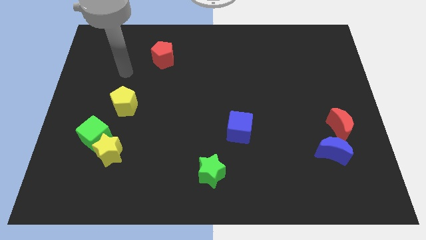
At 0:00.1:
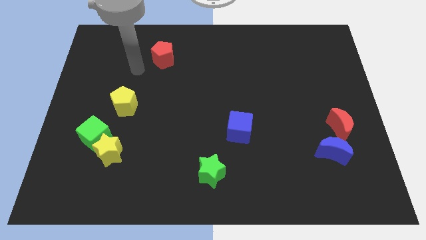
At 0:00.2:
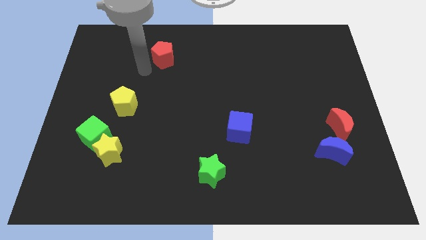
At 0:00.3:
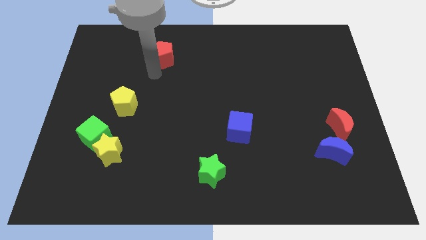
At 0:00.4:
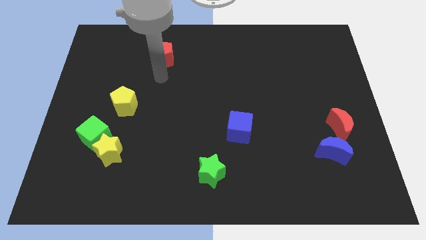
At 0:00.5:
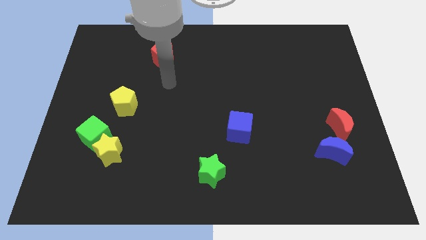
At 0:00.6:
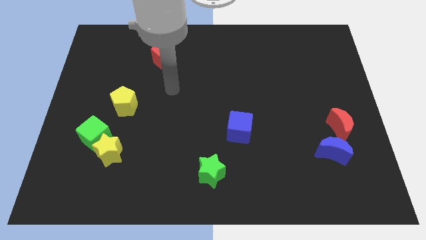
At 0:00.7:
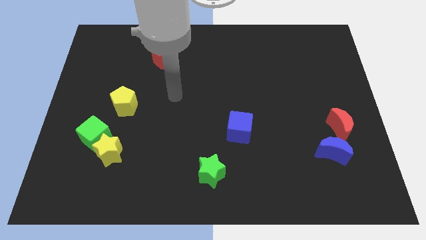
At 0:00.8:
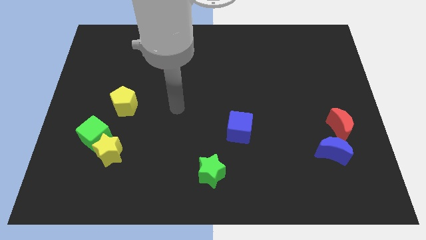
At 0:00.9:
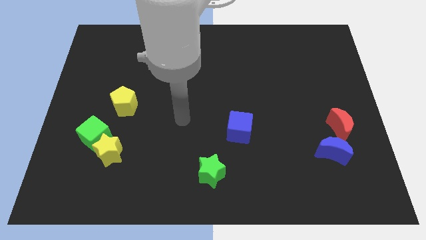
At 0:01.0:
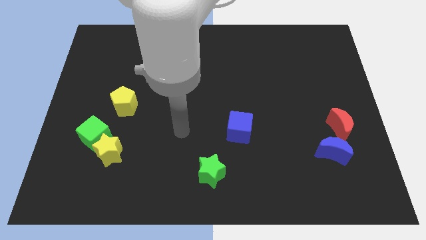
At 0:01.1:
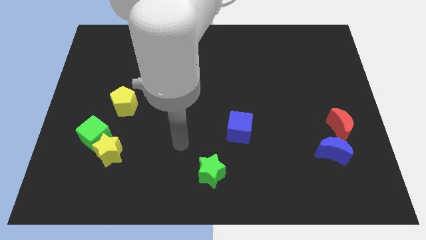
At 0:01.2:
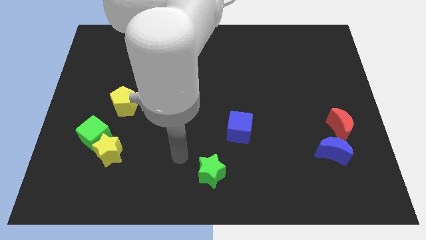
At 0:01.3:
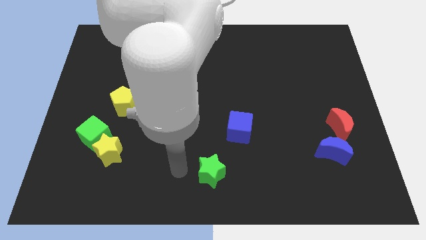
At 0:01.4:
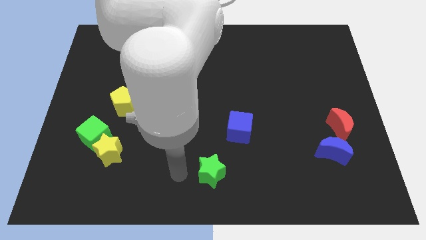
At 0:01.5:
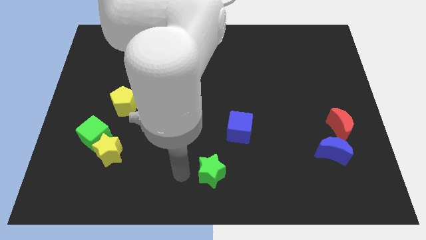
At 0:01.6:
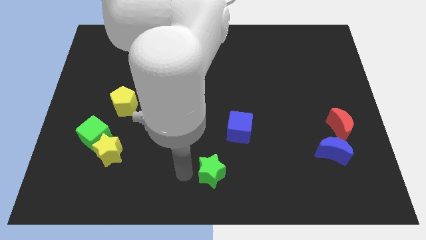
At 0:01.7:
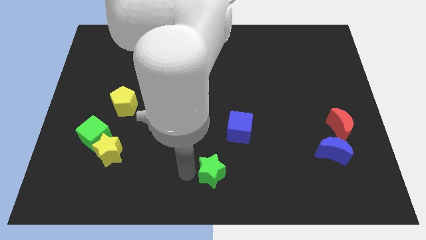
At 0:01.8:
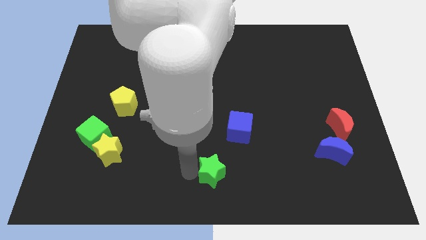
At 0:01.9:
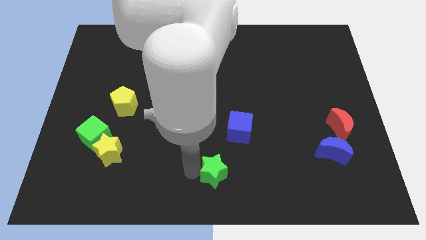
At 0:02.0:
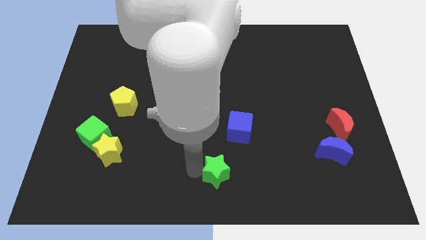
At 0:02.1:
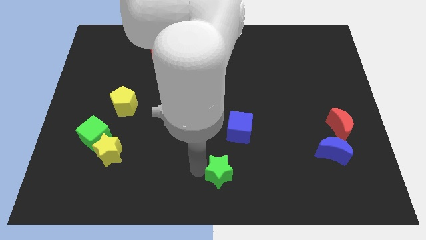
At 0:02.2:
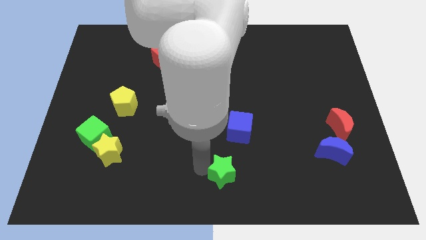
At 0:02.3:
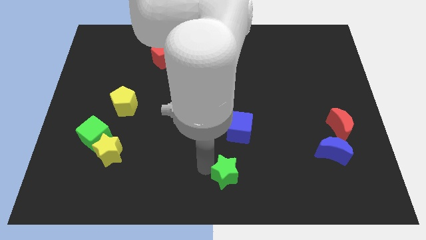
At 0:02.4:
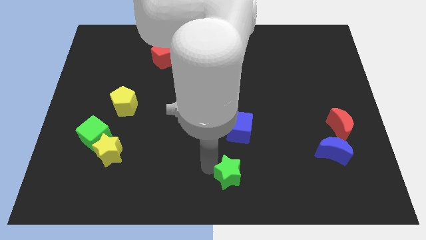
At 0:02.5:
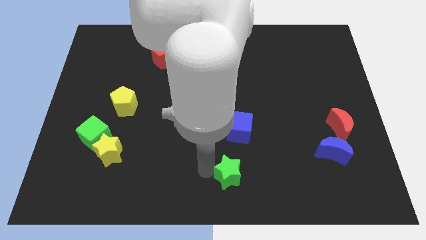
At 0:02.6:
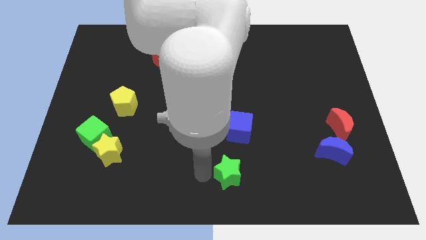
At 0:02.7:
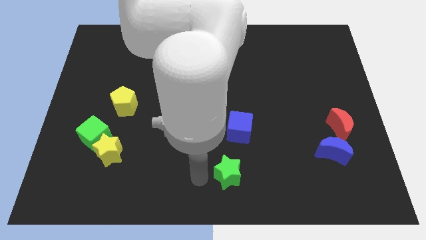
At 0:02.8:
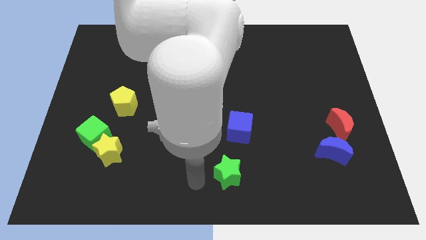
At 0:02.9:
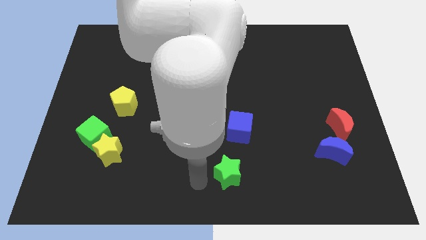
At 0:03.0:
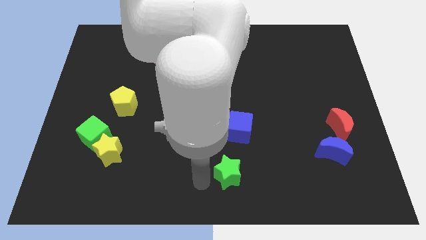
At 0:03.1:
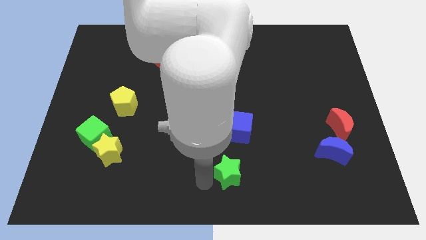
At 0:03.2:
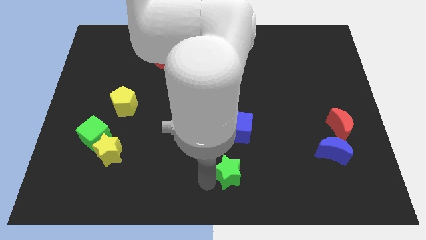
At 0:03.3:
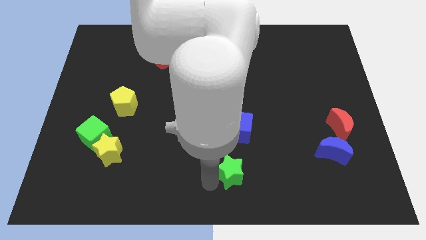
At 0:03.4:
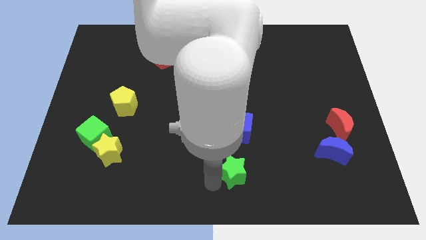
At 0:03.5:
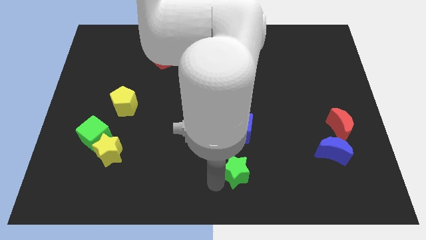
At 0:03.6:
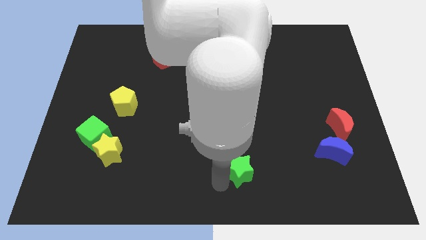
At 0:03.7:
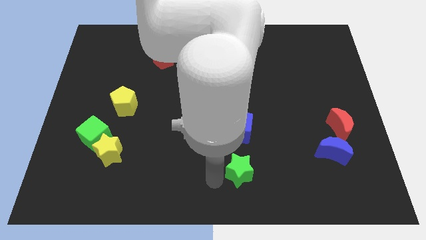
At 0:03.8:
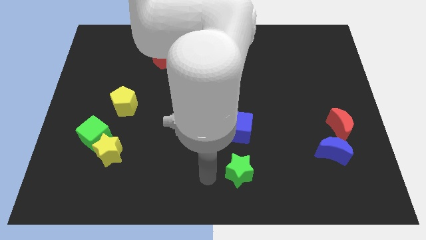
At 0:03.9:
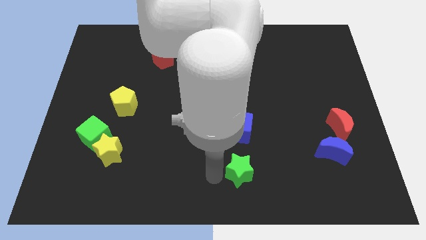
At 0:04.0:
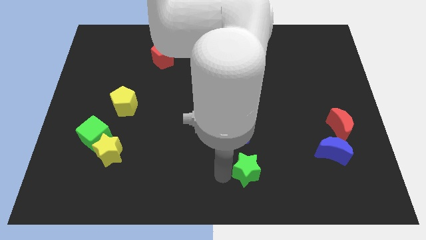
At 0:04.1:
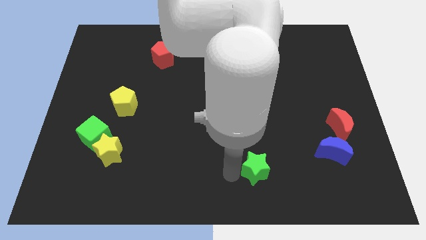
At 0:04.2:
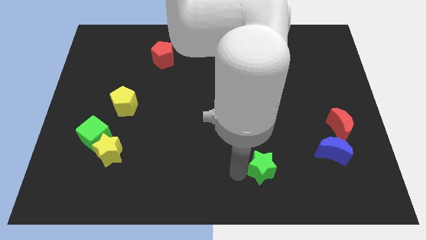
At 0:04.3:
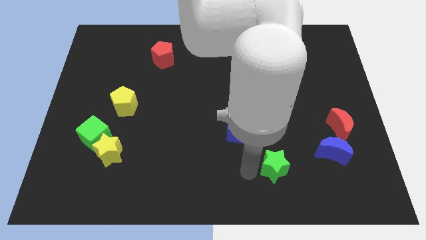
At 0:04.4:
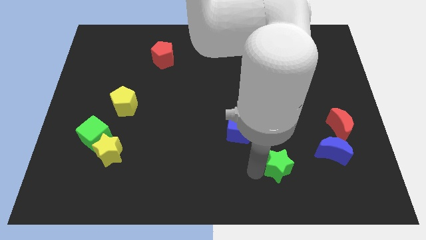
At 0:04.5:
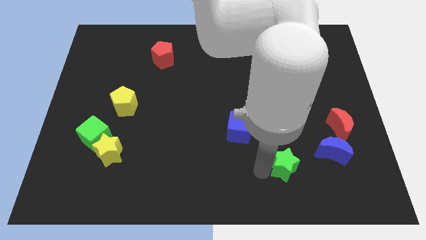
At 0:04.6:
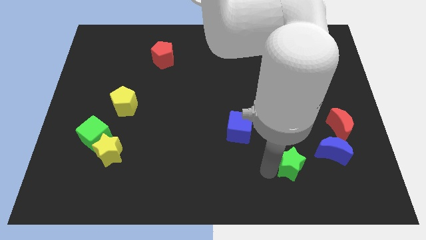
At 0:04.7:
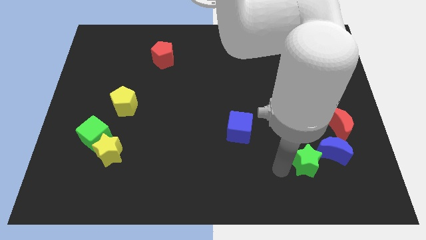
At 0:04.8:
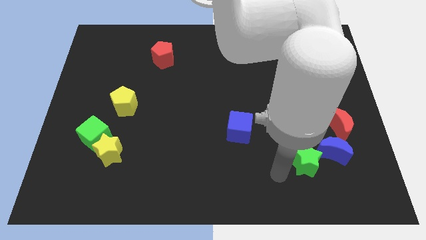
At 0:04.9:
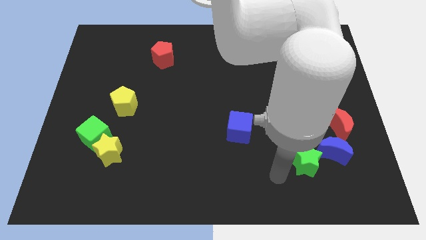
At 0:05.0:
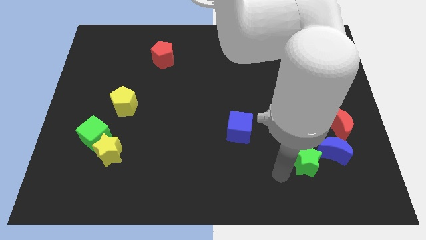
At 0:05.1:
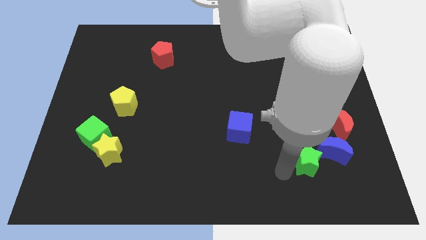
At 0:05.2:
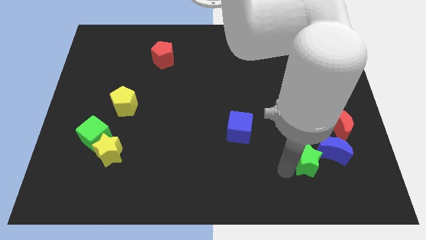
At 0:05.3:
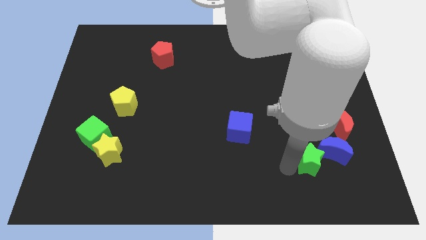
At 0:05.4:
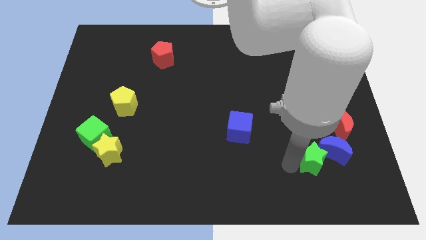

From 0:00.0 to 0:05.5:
move the green star close to the blue moon

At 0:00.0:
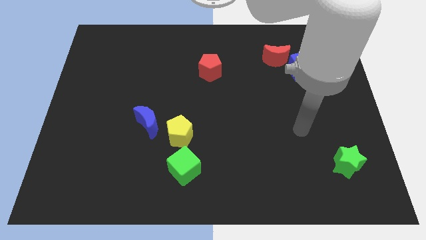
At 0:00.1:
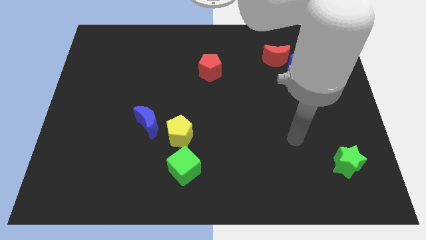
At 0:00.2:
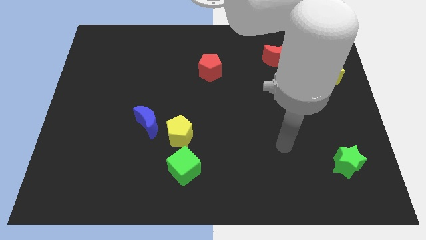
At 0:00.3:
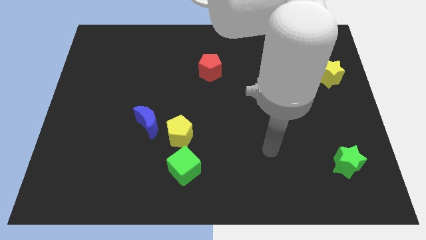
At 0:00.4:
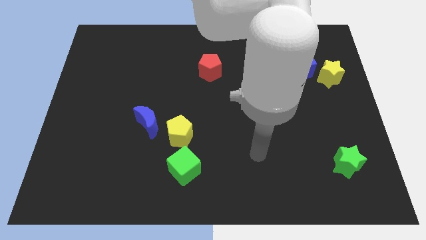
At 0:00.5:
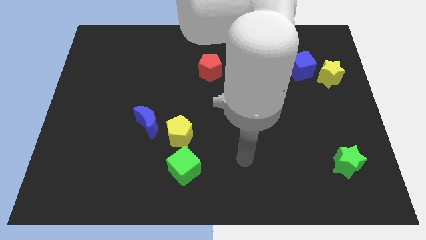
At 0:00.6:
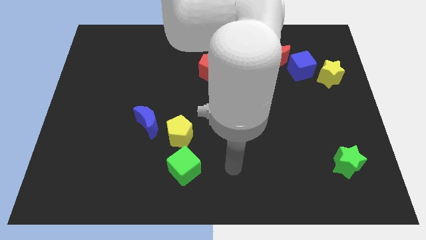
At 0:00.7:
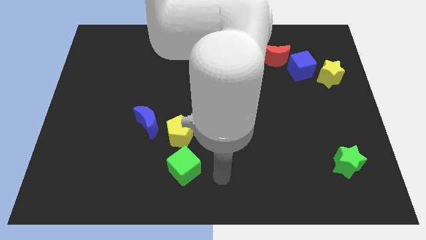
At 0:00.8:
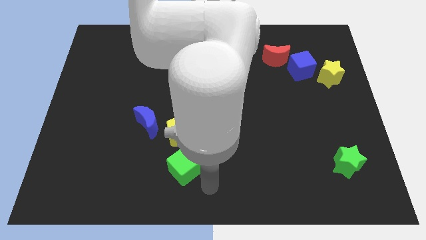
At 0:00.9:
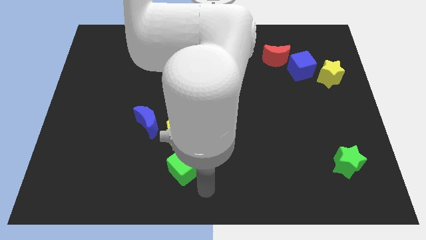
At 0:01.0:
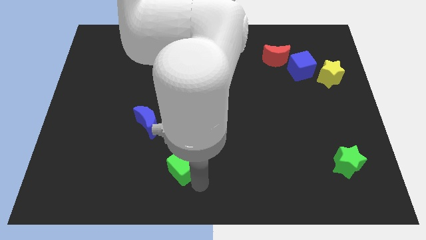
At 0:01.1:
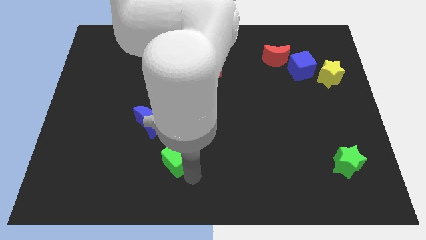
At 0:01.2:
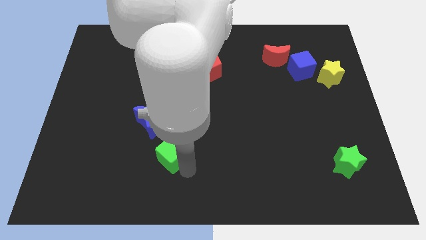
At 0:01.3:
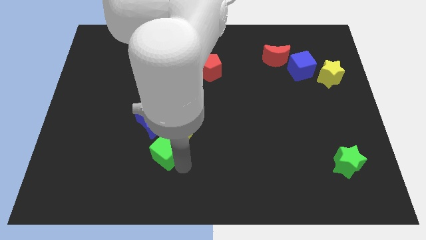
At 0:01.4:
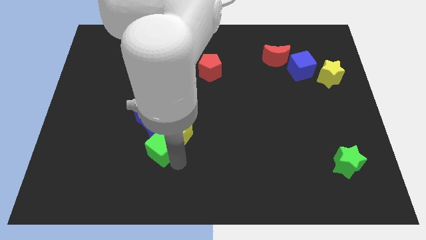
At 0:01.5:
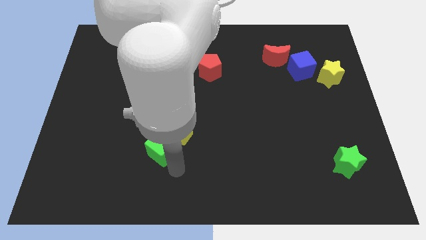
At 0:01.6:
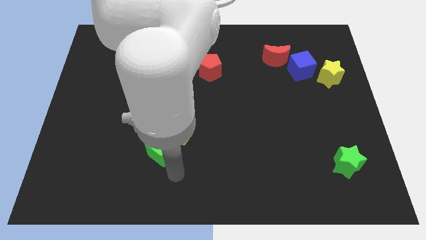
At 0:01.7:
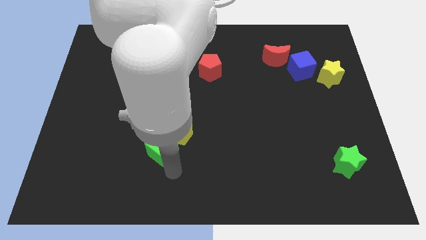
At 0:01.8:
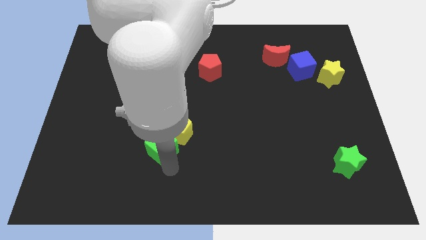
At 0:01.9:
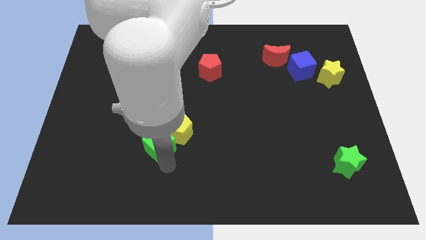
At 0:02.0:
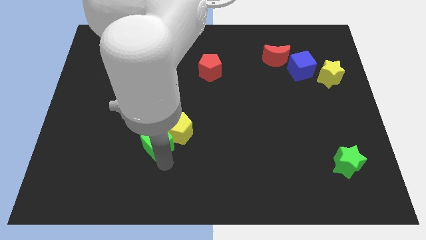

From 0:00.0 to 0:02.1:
put the green cube close to the blue moon
